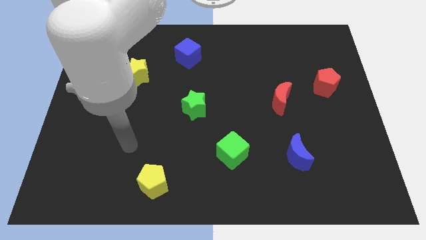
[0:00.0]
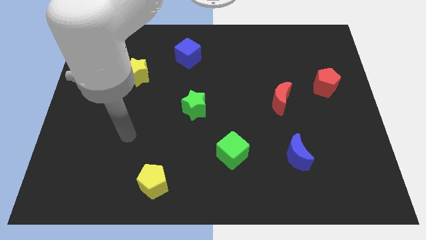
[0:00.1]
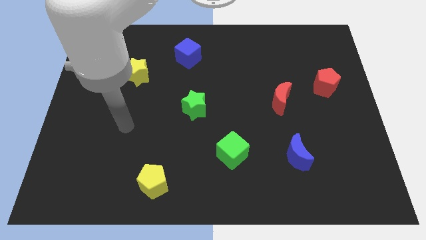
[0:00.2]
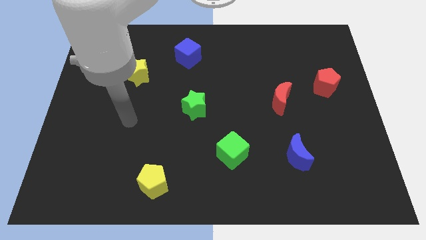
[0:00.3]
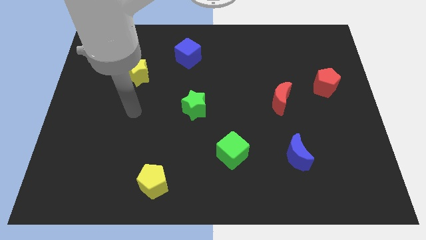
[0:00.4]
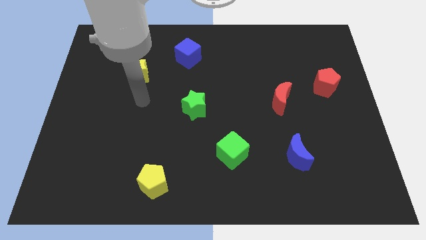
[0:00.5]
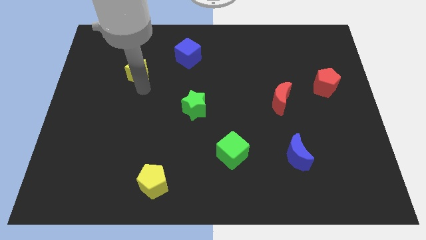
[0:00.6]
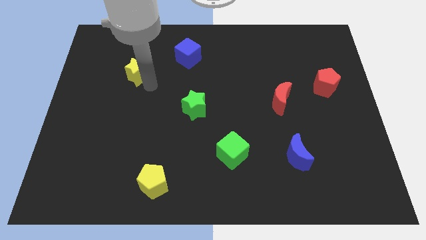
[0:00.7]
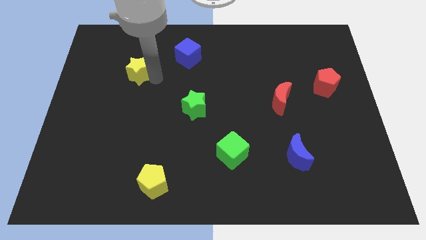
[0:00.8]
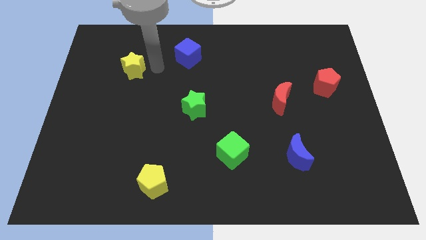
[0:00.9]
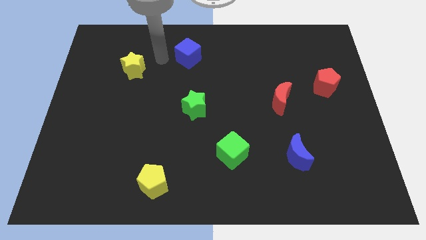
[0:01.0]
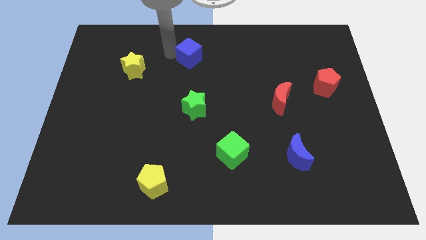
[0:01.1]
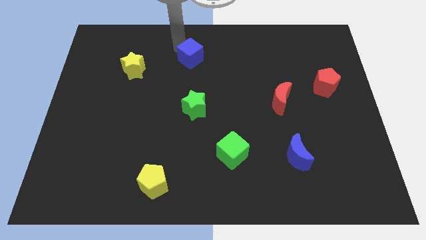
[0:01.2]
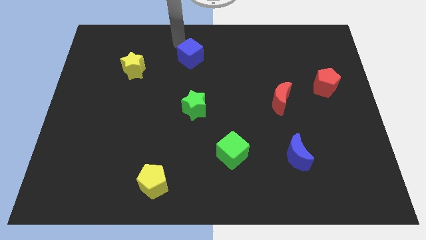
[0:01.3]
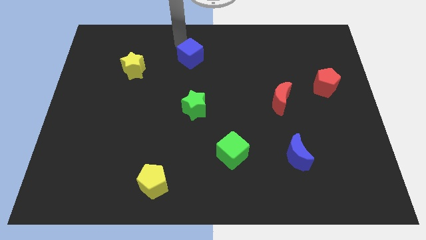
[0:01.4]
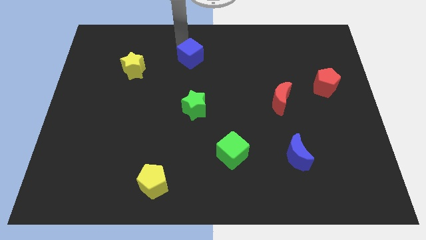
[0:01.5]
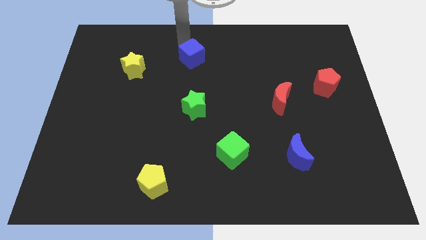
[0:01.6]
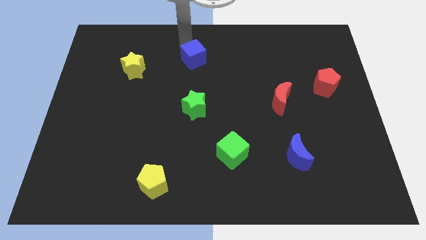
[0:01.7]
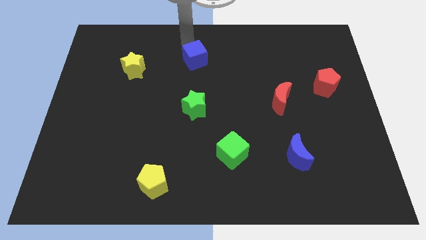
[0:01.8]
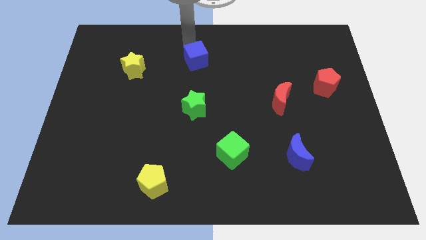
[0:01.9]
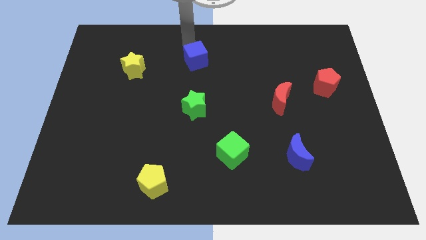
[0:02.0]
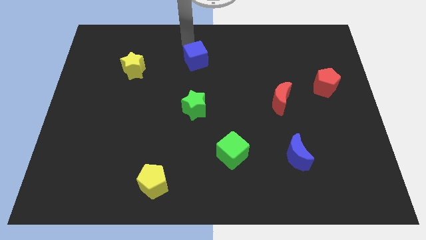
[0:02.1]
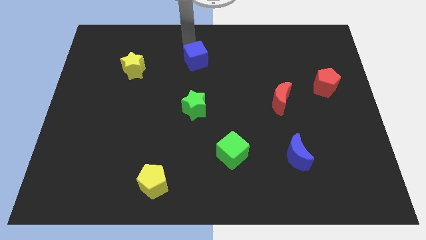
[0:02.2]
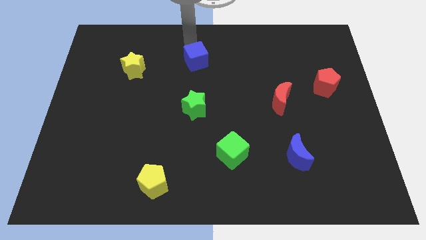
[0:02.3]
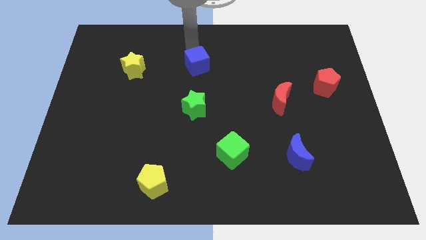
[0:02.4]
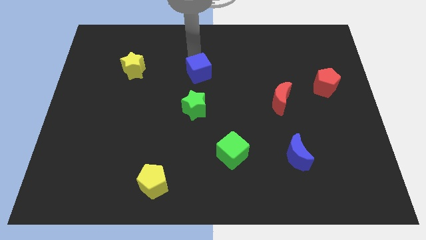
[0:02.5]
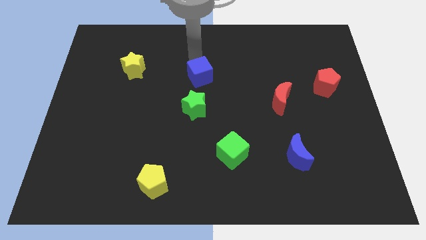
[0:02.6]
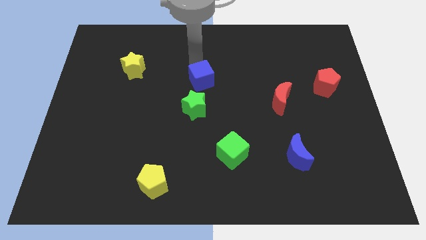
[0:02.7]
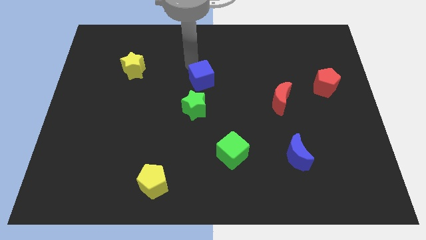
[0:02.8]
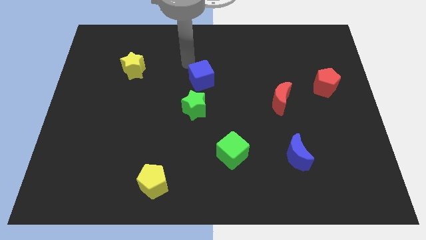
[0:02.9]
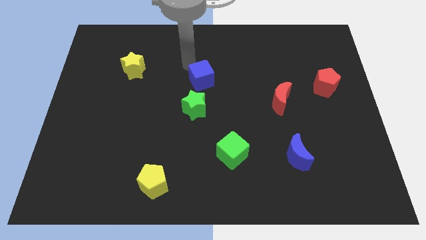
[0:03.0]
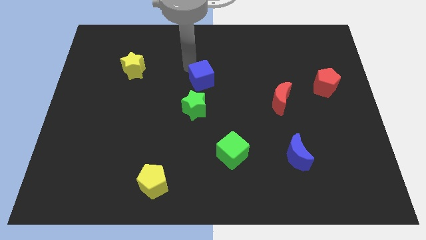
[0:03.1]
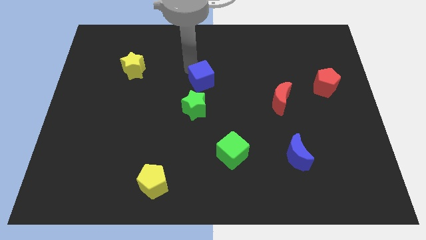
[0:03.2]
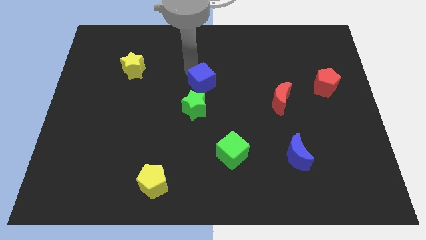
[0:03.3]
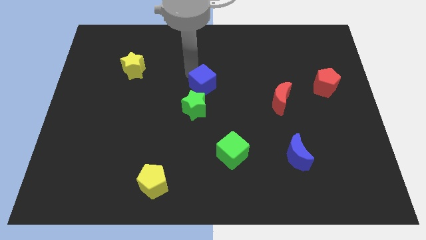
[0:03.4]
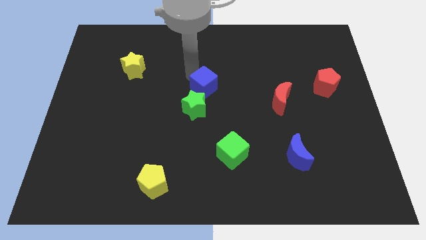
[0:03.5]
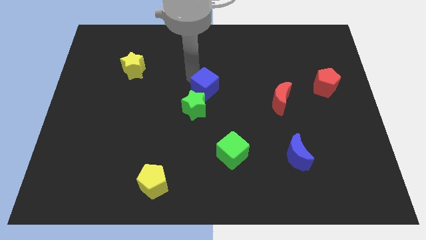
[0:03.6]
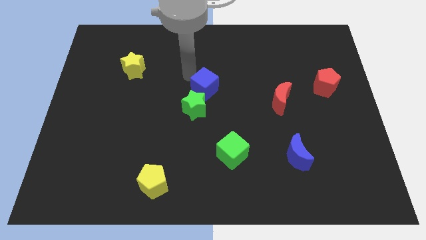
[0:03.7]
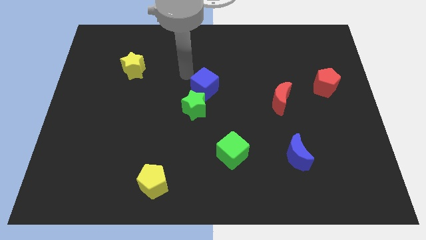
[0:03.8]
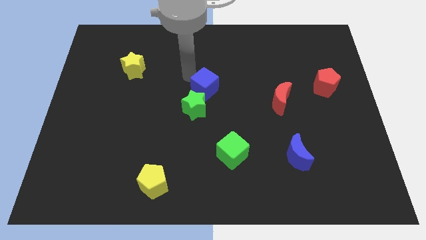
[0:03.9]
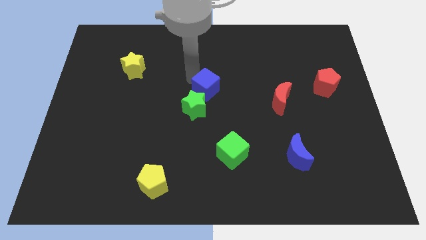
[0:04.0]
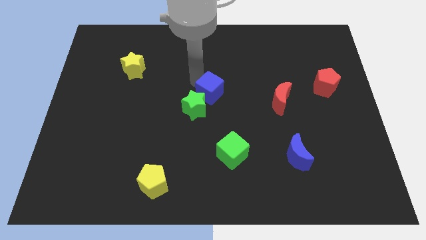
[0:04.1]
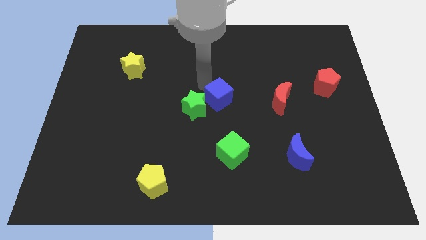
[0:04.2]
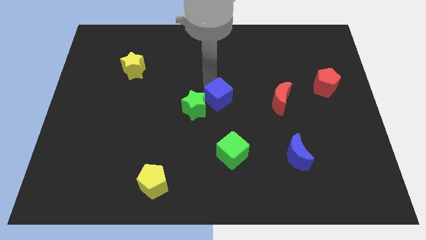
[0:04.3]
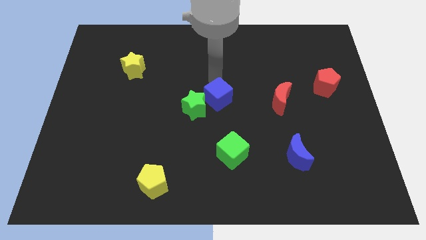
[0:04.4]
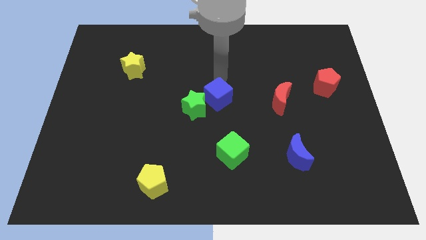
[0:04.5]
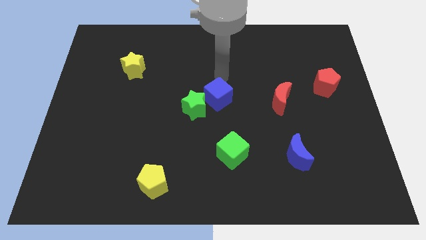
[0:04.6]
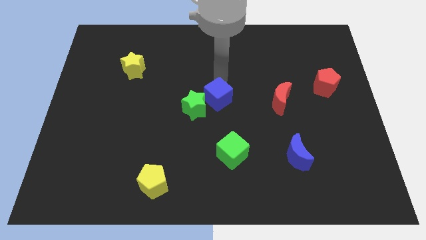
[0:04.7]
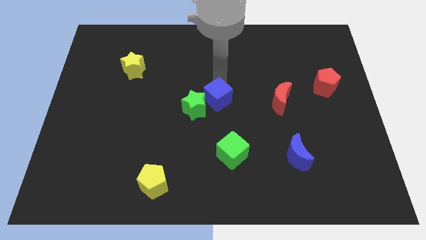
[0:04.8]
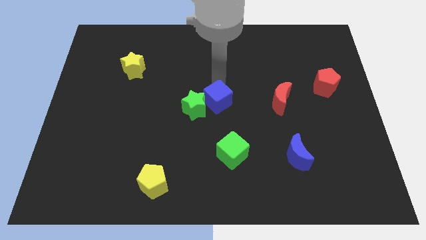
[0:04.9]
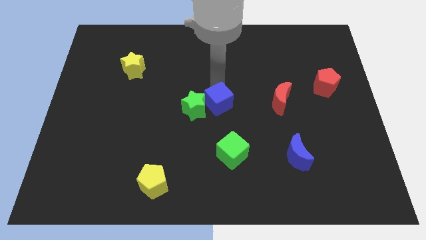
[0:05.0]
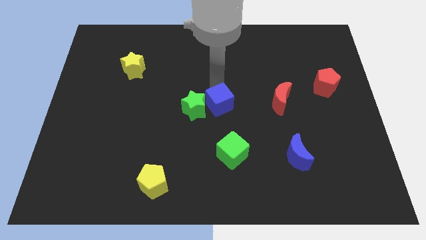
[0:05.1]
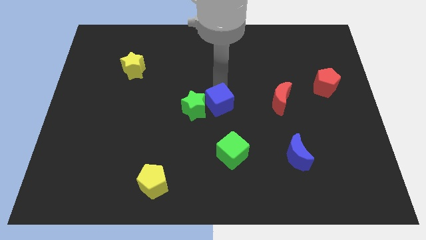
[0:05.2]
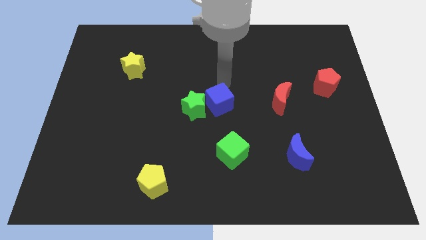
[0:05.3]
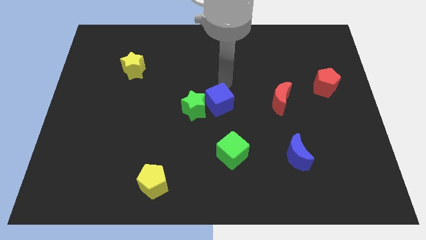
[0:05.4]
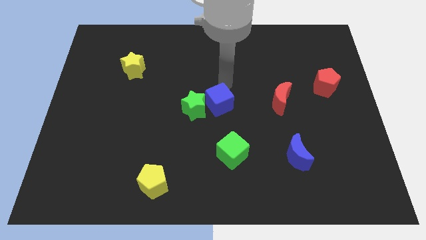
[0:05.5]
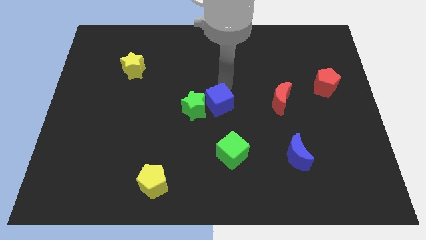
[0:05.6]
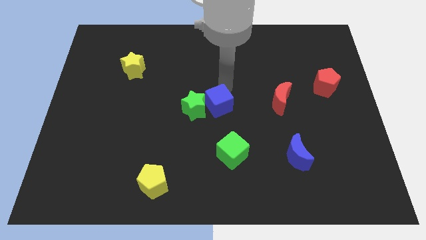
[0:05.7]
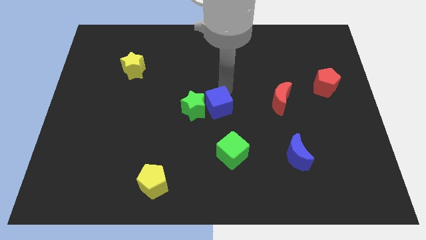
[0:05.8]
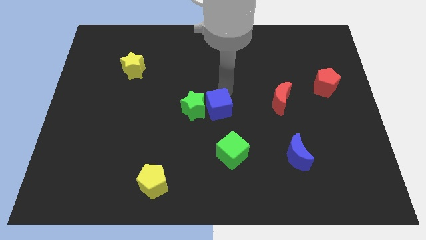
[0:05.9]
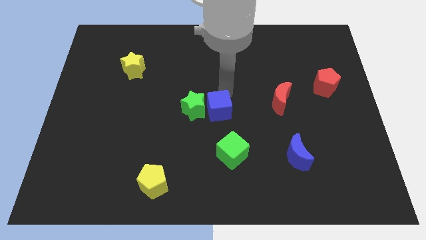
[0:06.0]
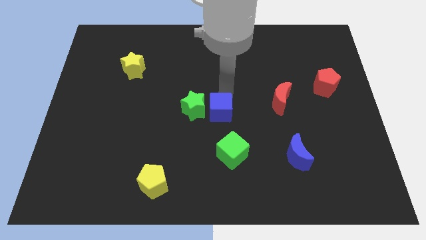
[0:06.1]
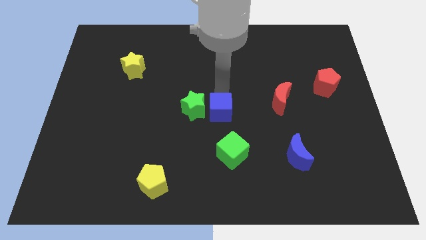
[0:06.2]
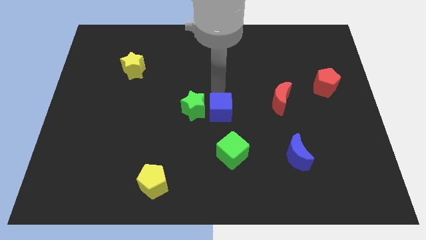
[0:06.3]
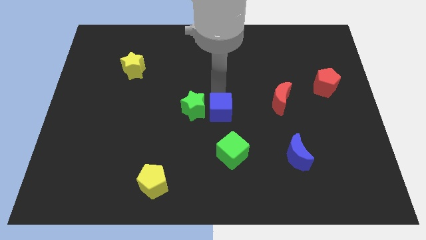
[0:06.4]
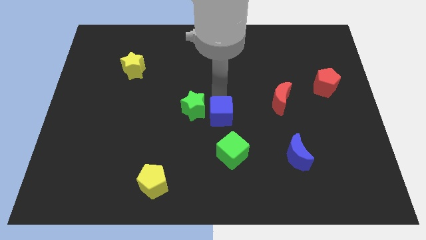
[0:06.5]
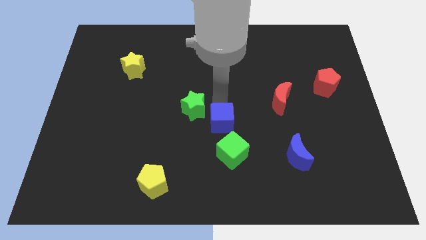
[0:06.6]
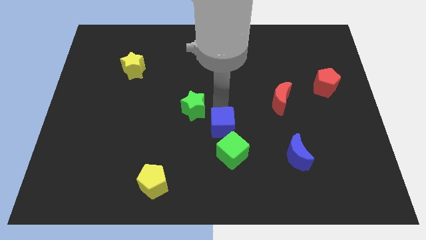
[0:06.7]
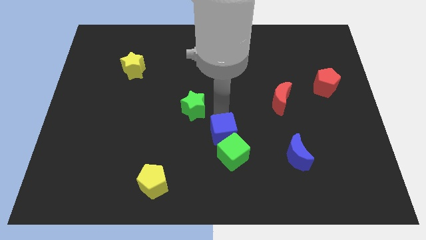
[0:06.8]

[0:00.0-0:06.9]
put the blue cube close to the green cube

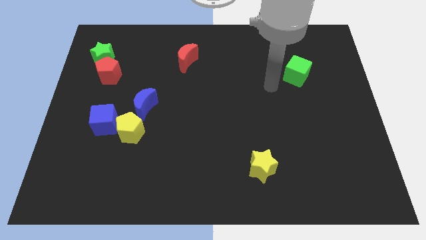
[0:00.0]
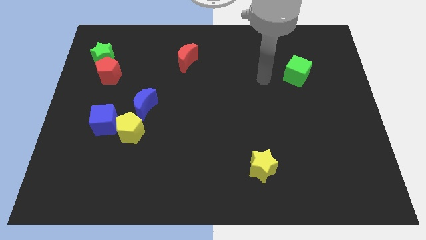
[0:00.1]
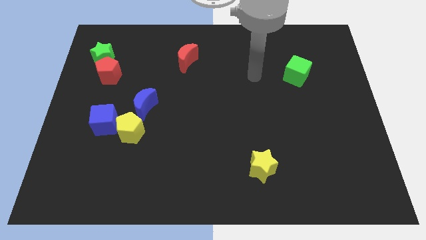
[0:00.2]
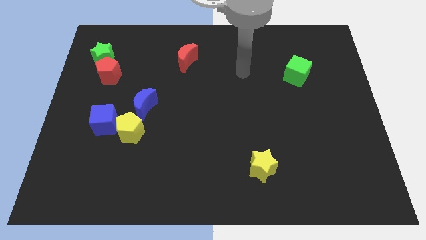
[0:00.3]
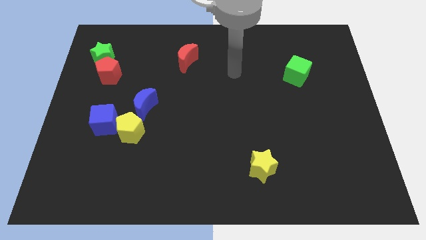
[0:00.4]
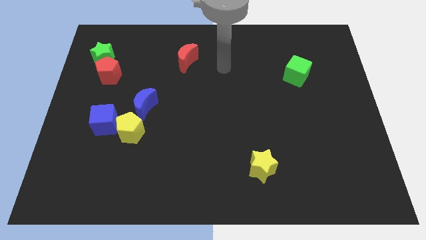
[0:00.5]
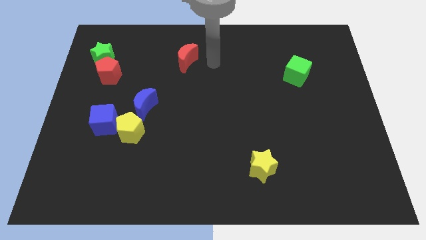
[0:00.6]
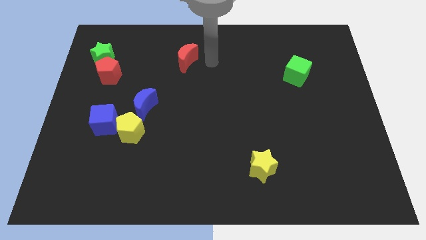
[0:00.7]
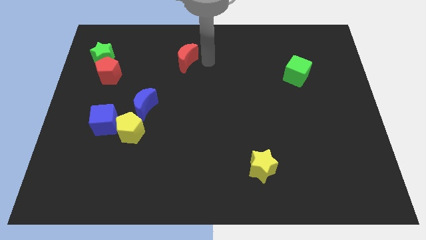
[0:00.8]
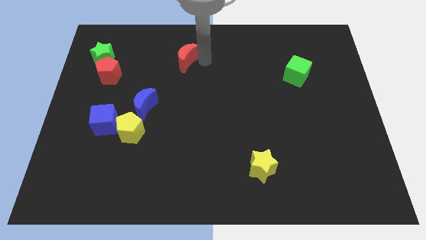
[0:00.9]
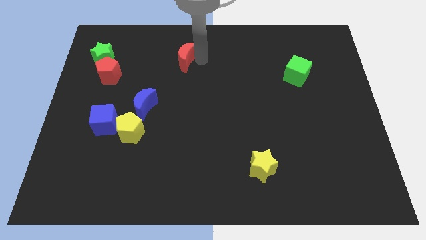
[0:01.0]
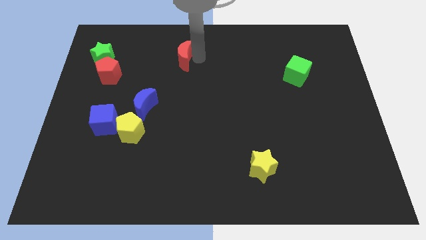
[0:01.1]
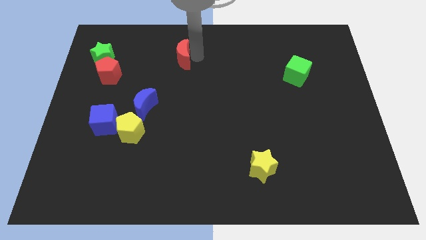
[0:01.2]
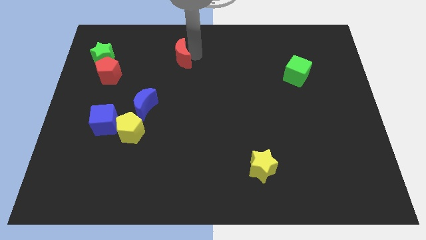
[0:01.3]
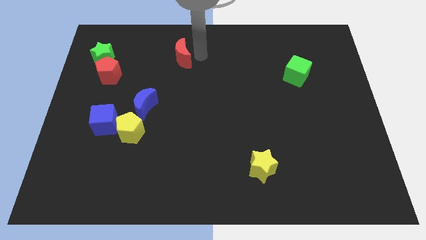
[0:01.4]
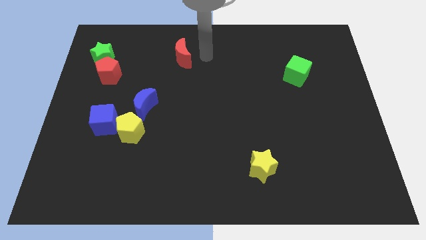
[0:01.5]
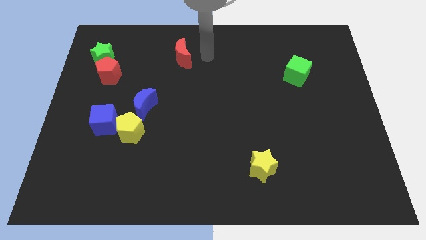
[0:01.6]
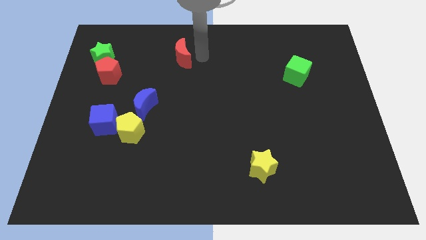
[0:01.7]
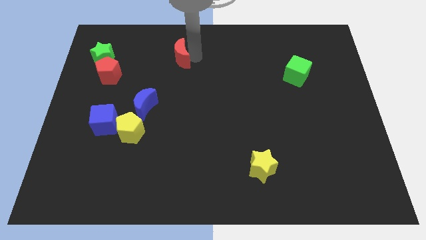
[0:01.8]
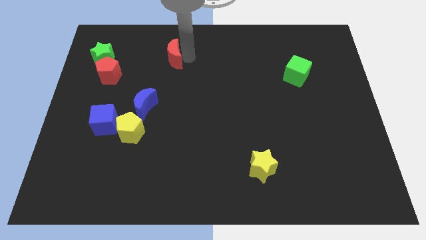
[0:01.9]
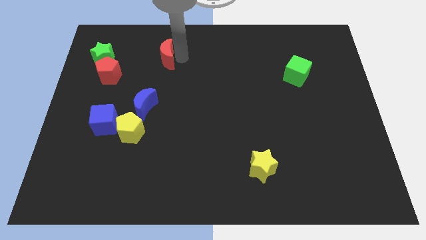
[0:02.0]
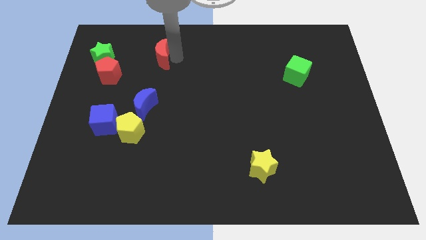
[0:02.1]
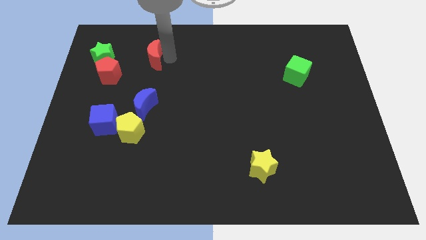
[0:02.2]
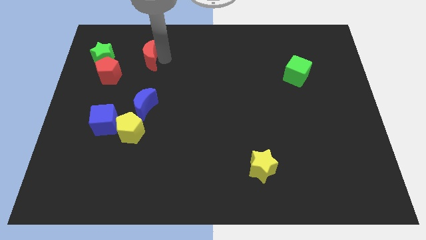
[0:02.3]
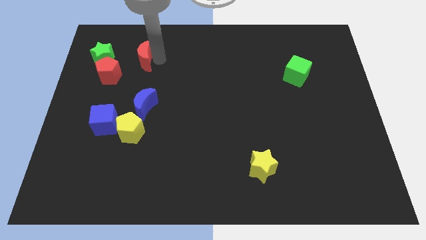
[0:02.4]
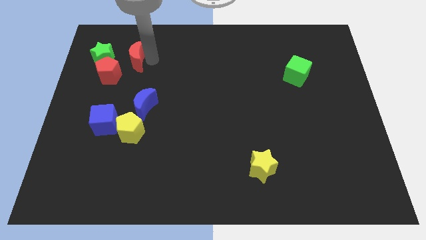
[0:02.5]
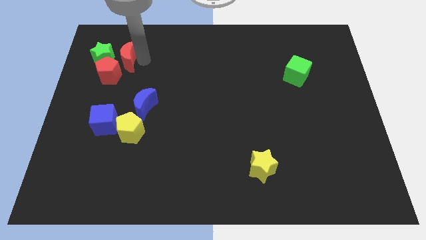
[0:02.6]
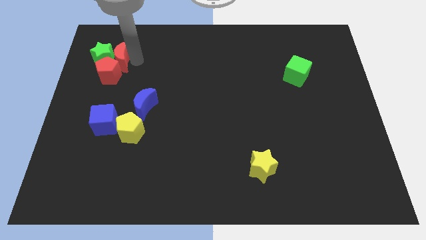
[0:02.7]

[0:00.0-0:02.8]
slide the red moon next to the green star
